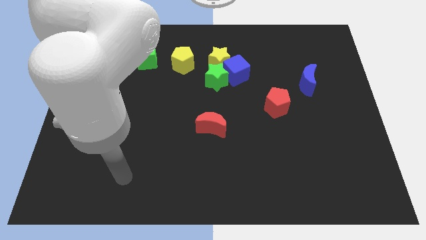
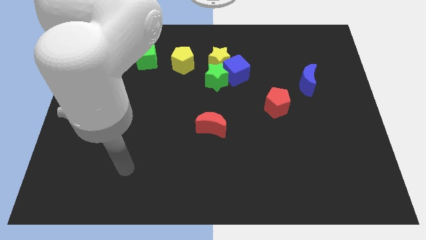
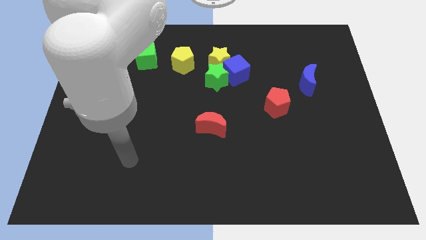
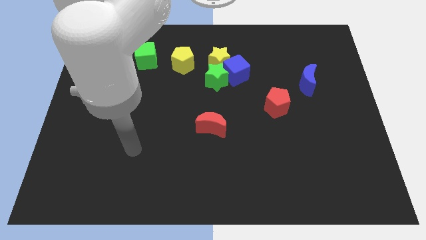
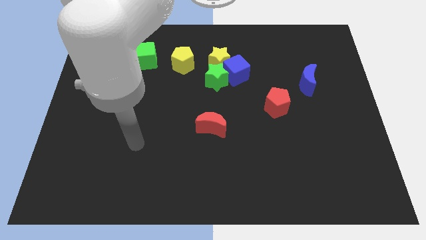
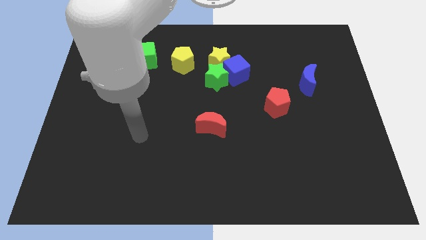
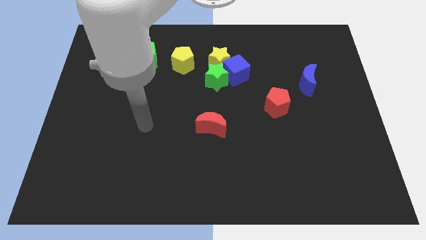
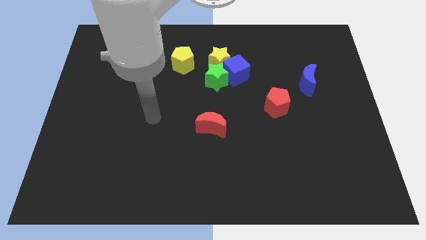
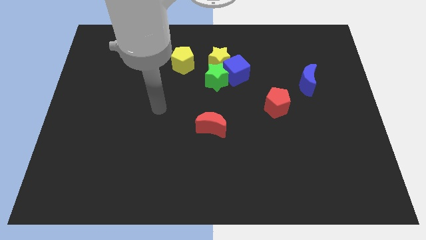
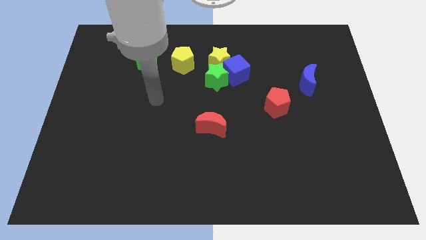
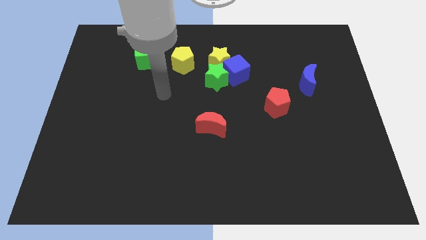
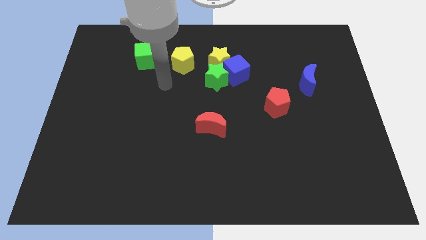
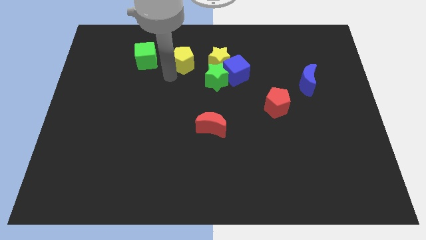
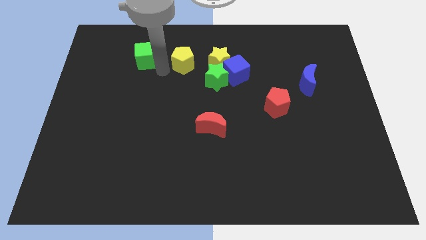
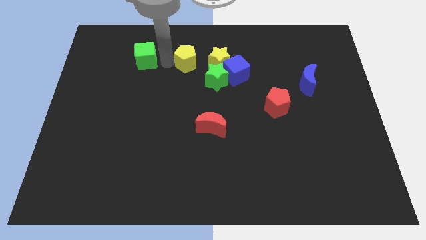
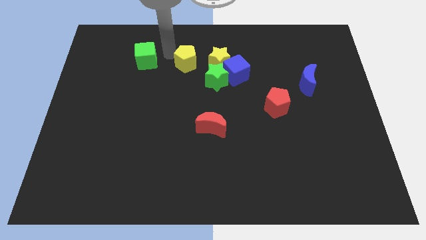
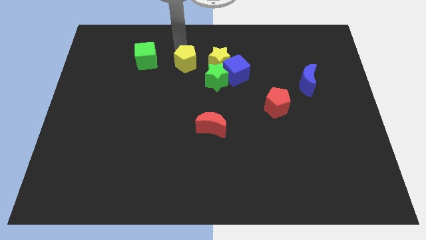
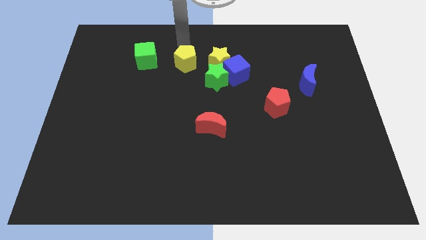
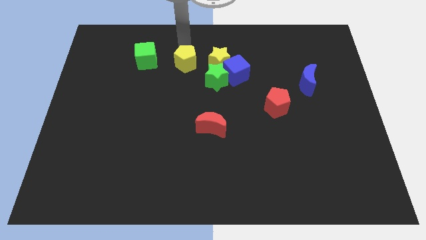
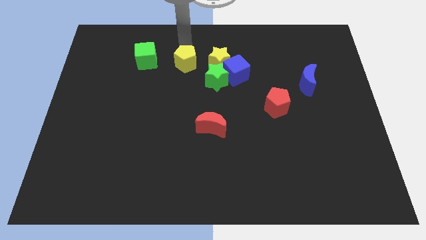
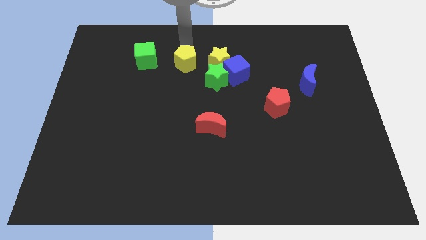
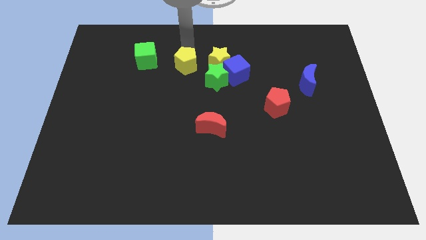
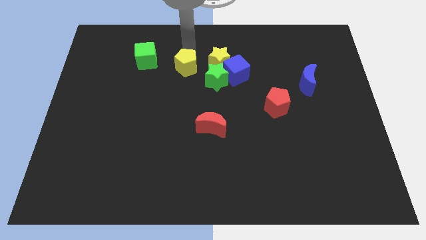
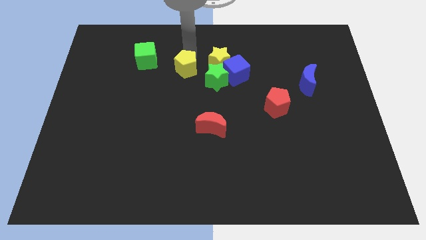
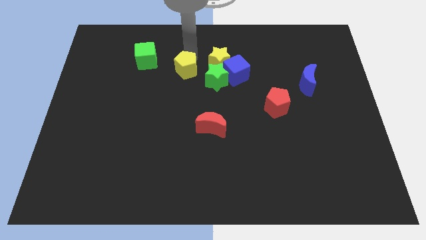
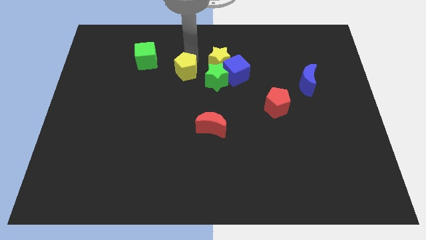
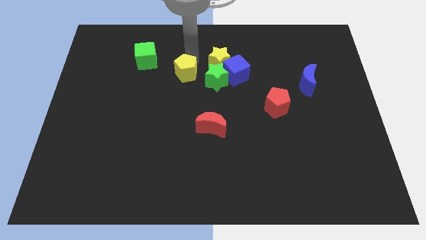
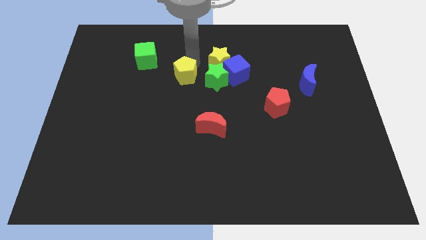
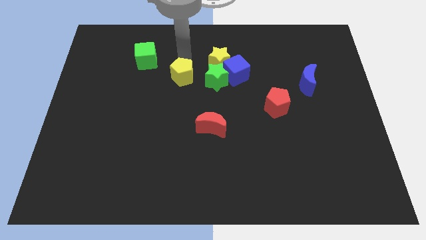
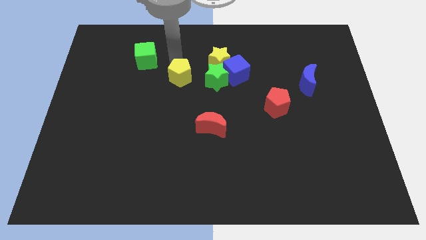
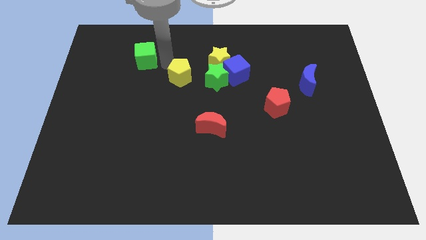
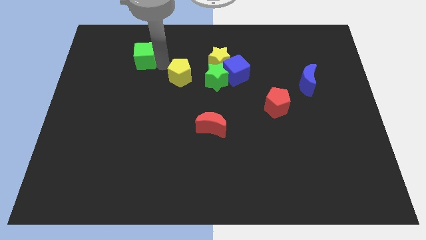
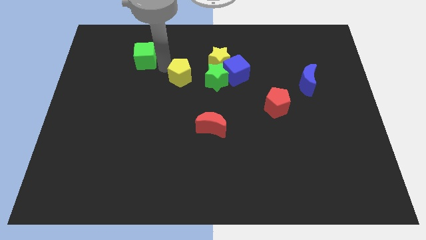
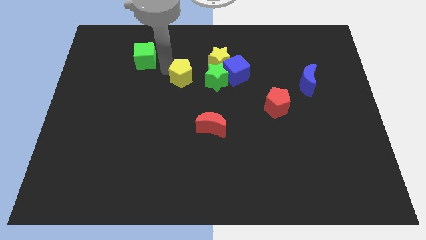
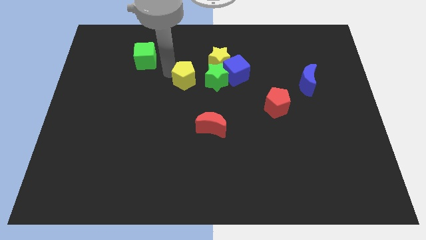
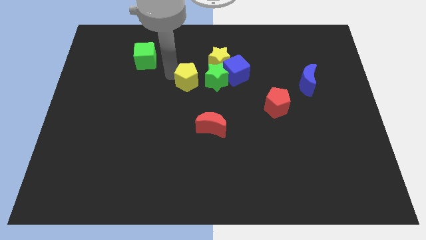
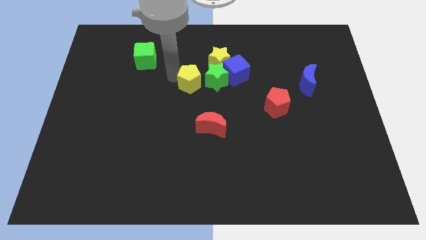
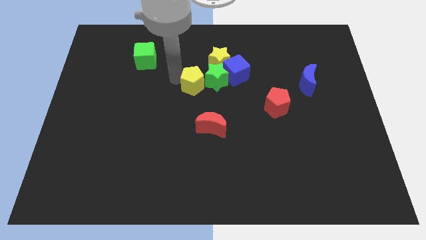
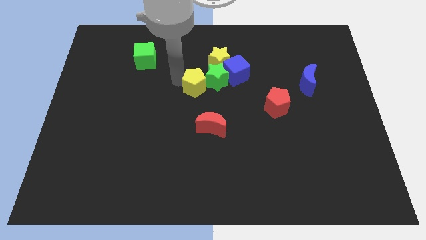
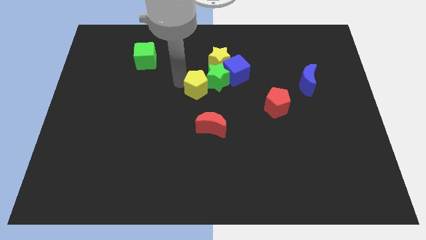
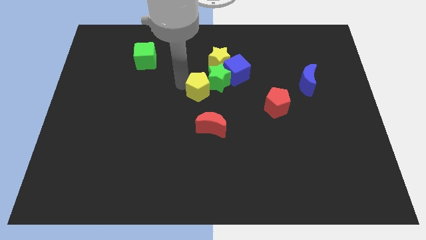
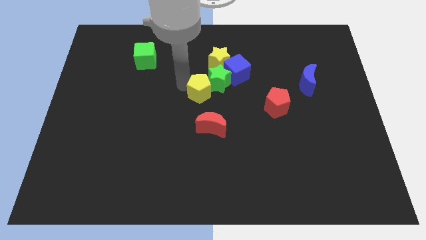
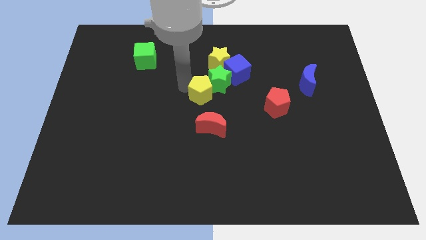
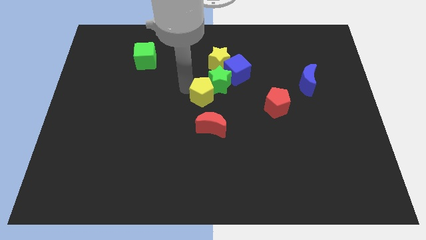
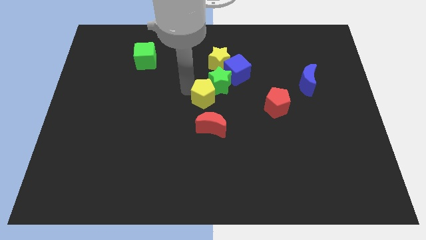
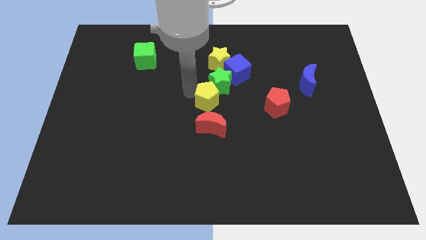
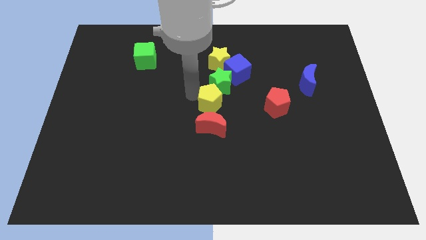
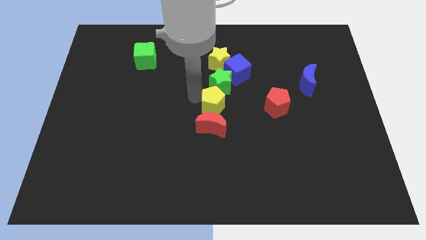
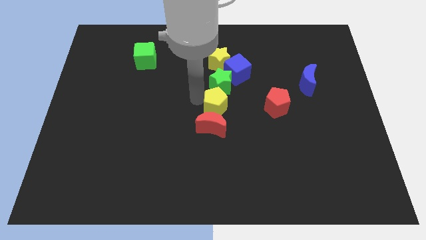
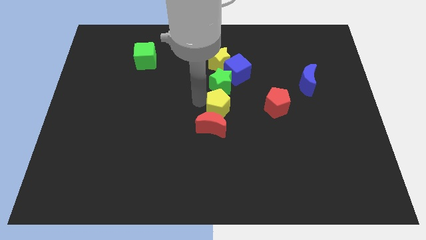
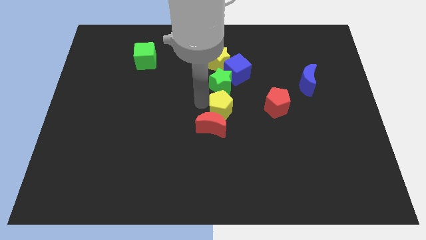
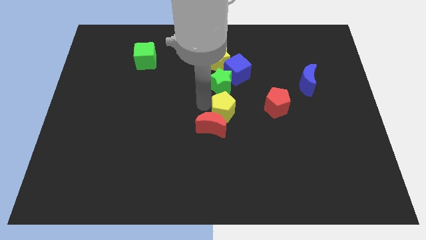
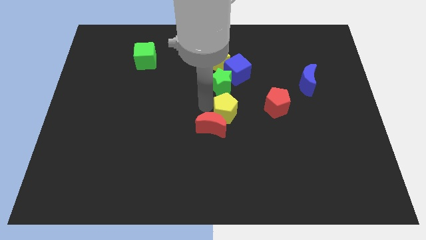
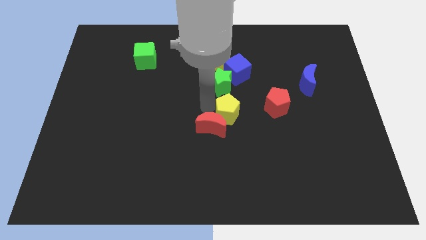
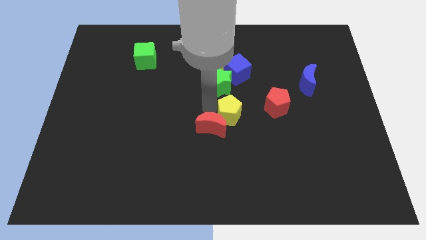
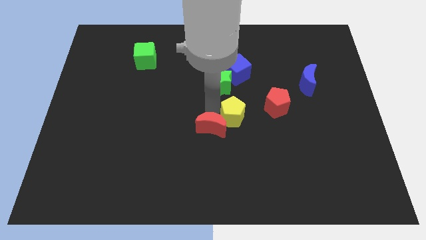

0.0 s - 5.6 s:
move the yellow pentagon downwards and to the right diagonally

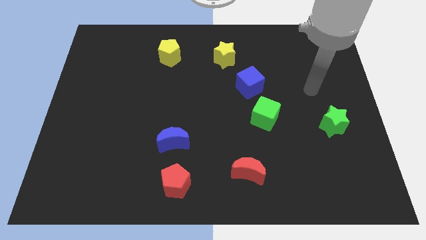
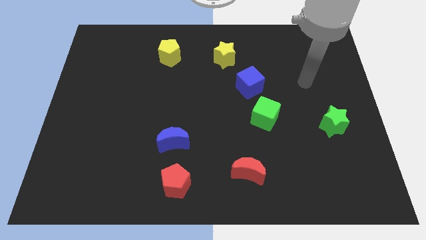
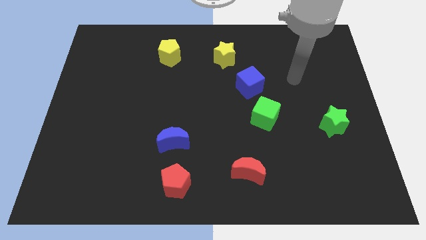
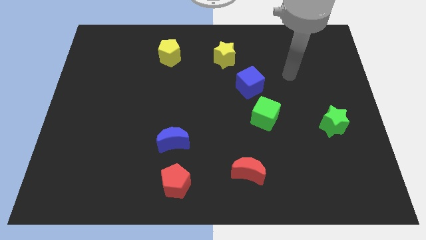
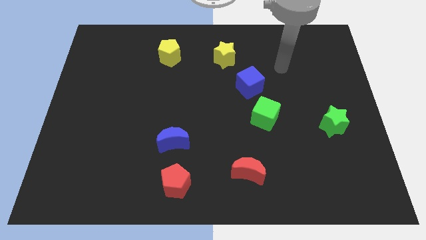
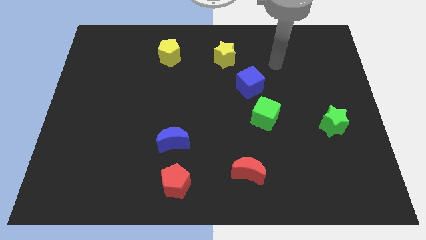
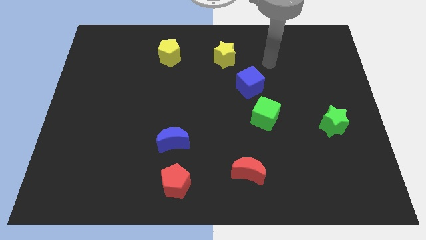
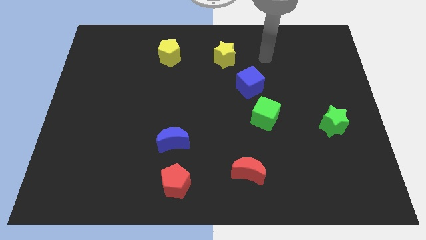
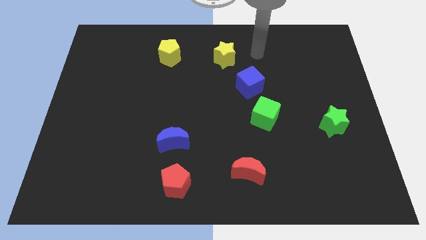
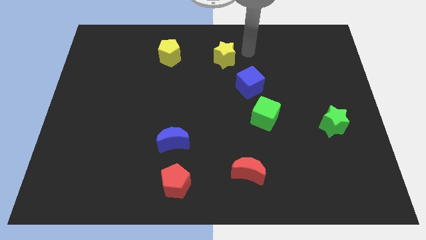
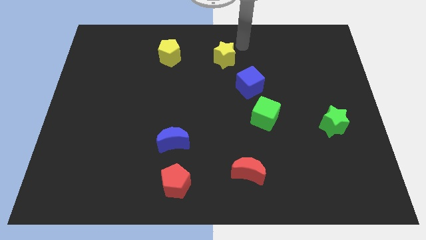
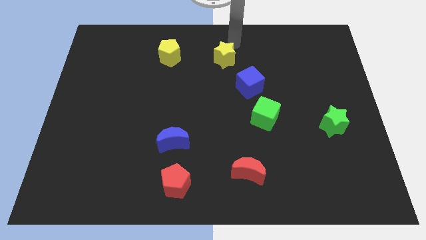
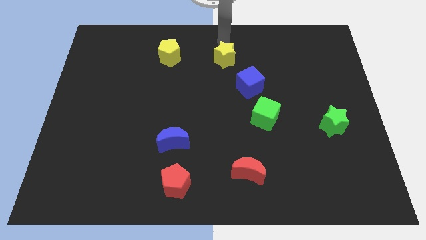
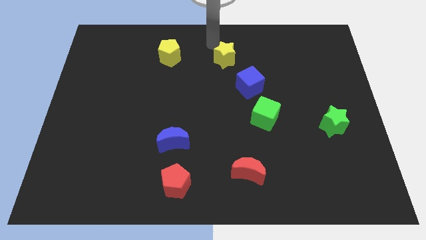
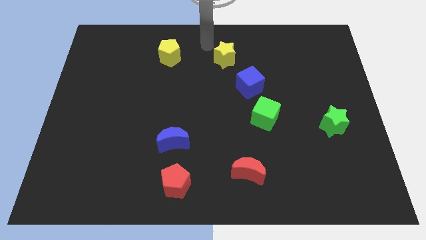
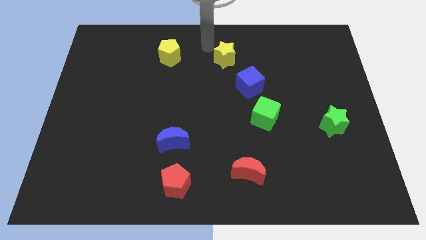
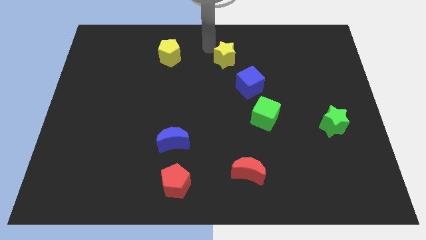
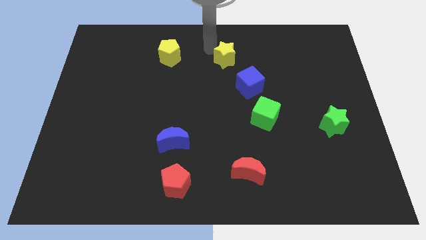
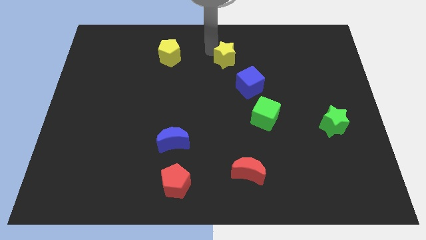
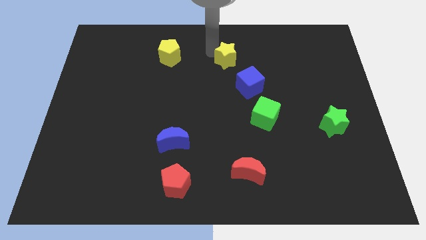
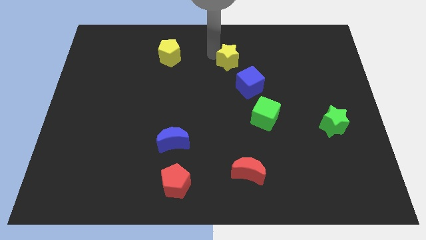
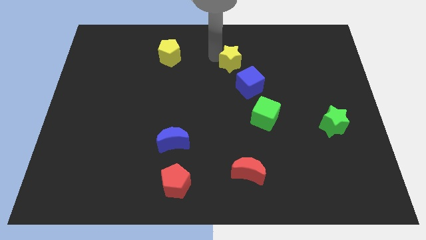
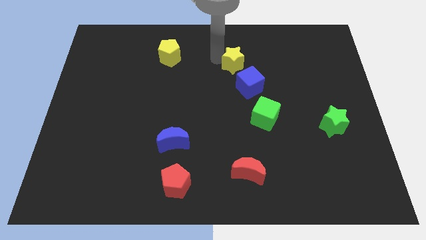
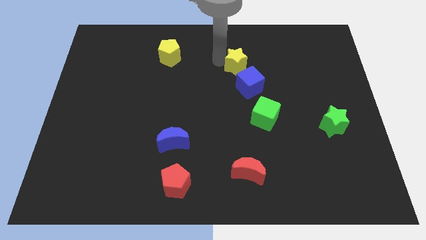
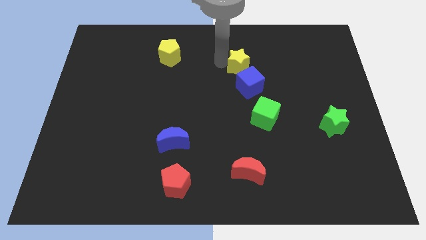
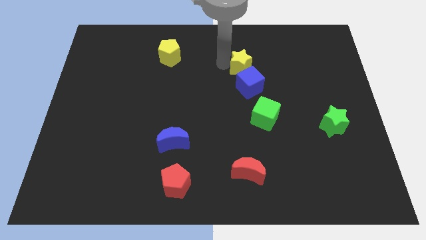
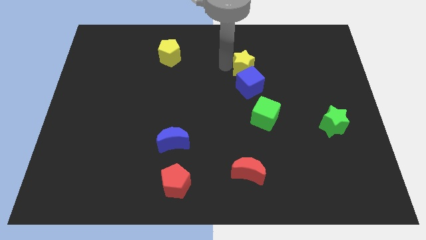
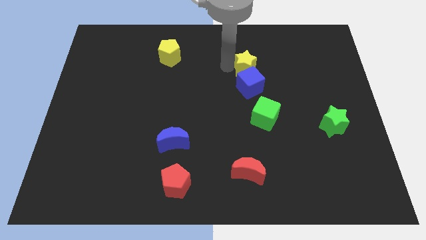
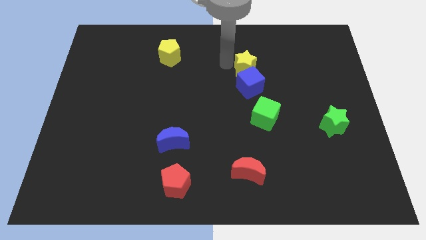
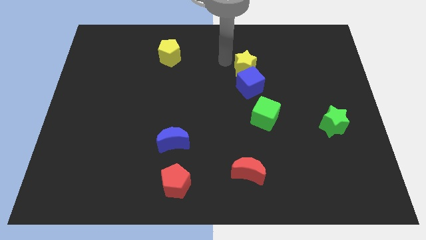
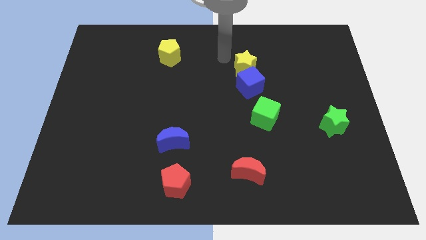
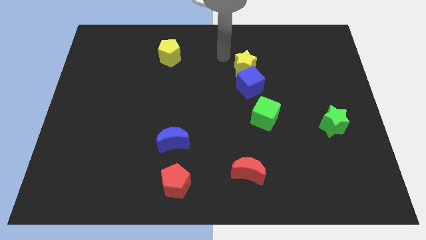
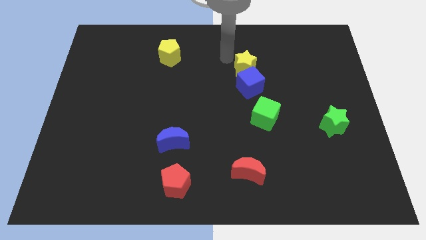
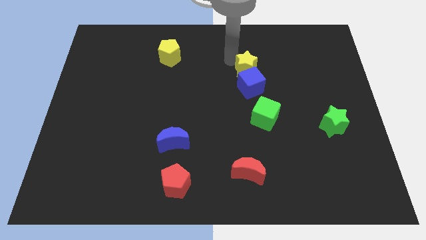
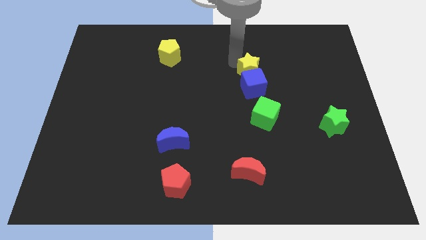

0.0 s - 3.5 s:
move the yellow star a little downwards and to the right
